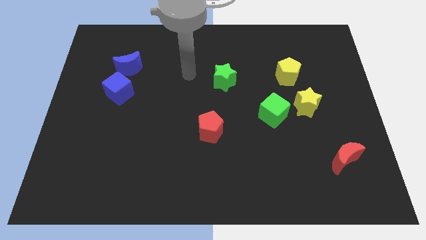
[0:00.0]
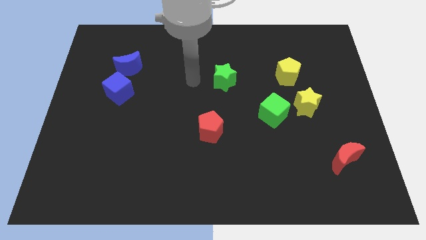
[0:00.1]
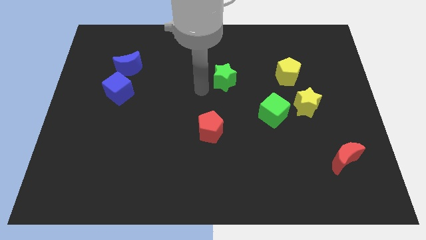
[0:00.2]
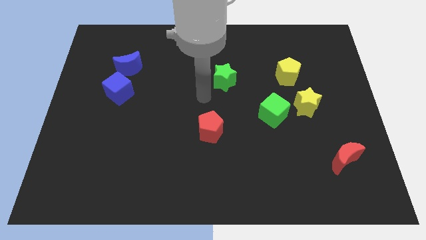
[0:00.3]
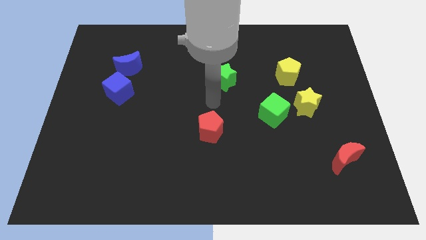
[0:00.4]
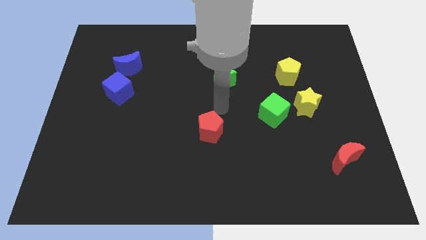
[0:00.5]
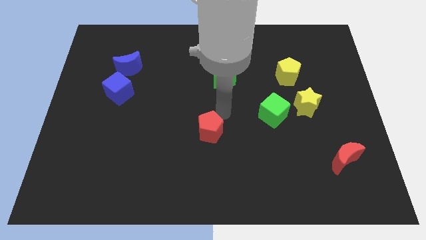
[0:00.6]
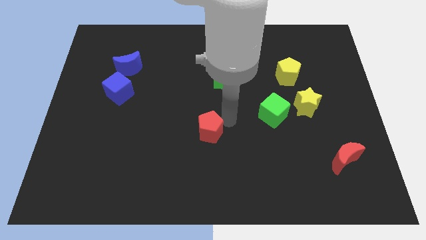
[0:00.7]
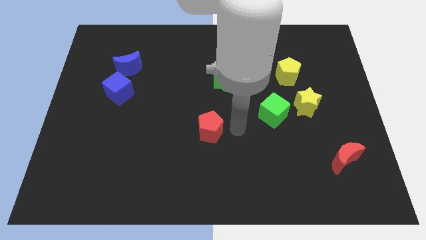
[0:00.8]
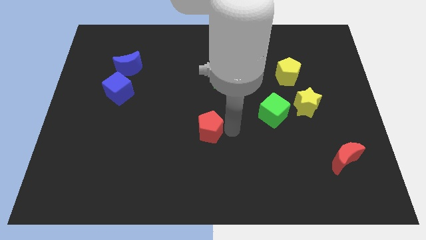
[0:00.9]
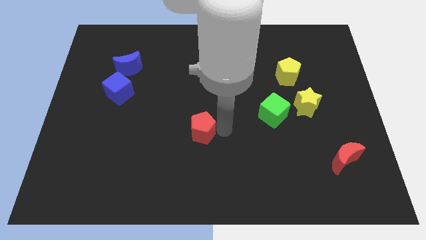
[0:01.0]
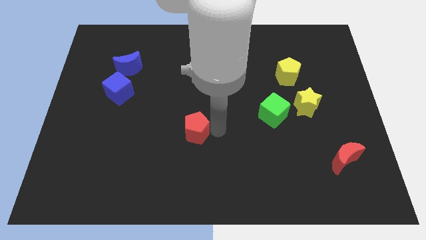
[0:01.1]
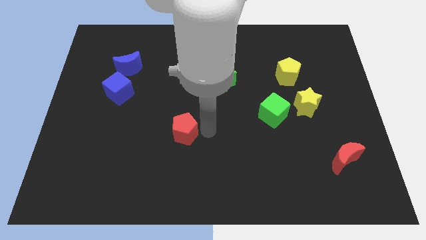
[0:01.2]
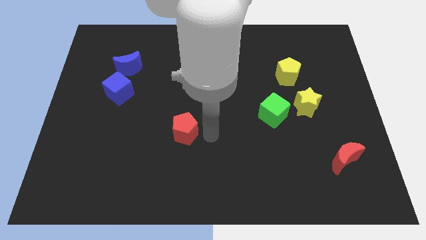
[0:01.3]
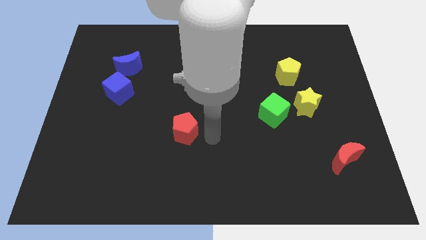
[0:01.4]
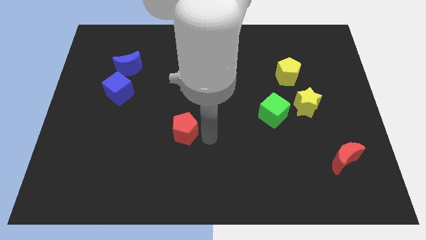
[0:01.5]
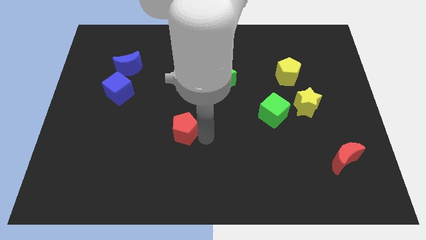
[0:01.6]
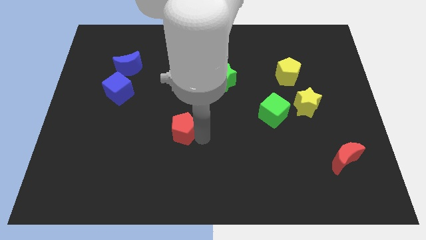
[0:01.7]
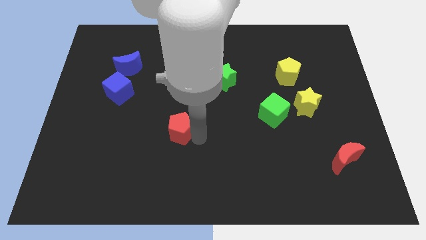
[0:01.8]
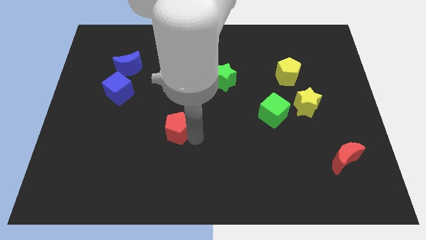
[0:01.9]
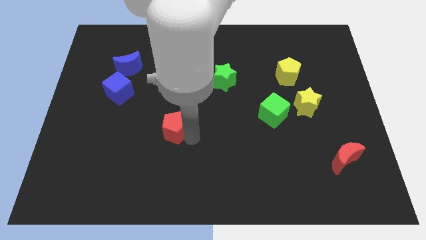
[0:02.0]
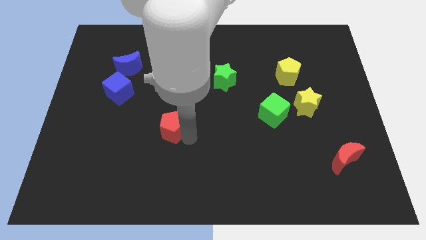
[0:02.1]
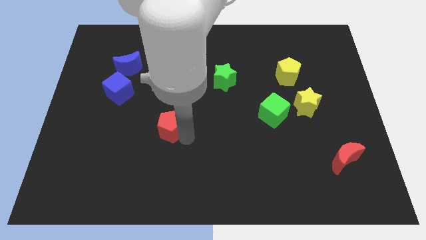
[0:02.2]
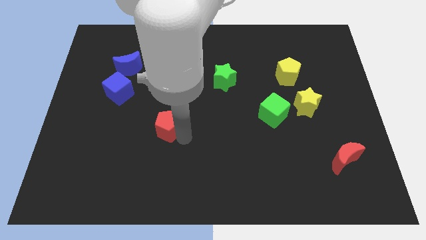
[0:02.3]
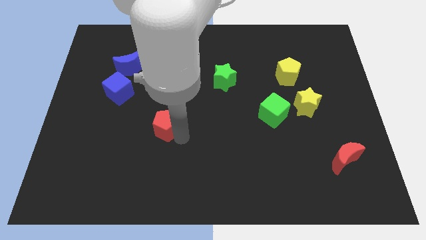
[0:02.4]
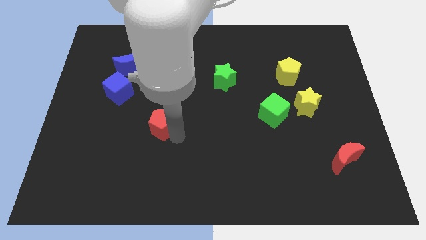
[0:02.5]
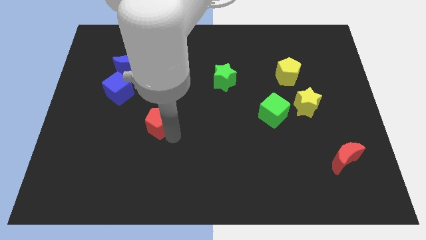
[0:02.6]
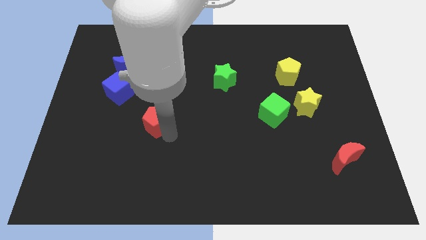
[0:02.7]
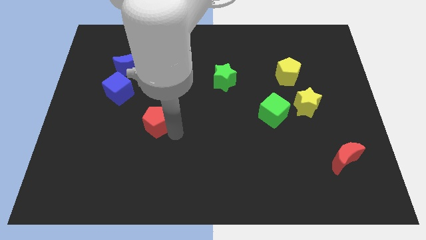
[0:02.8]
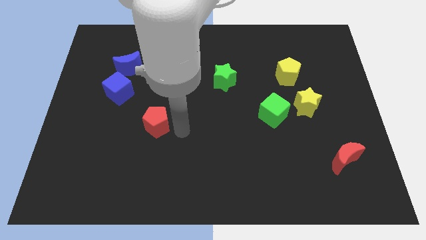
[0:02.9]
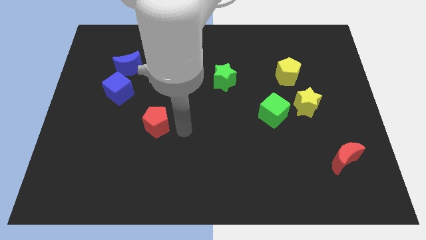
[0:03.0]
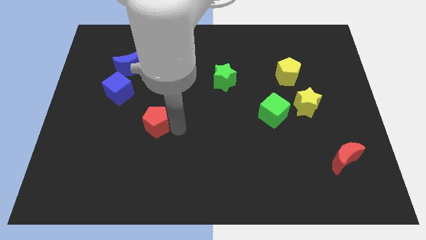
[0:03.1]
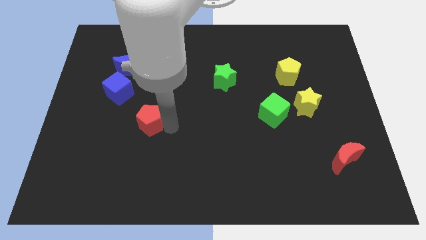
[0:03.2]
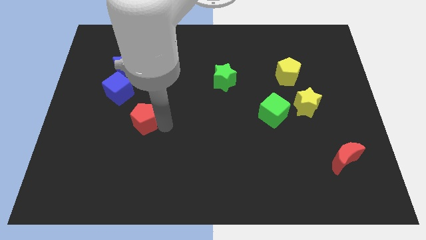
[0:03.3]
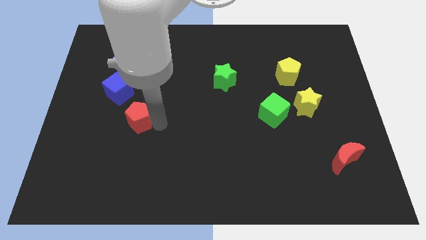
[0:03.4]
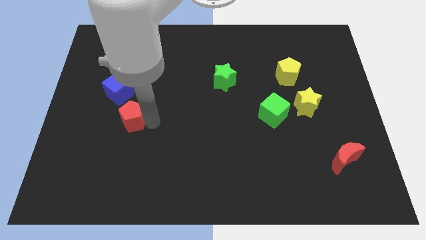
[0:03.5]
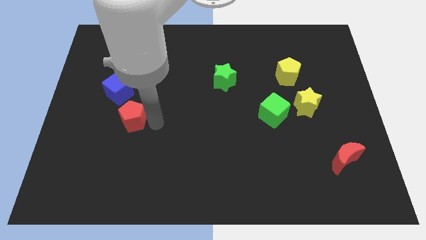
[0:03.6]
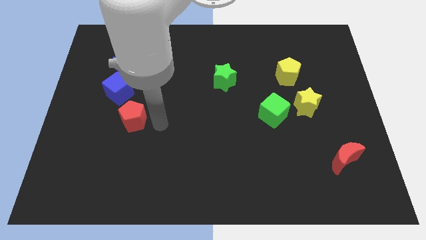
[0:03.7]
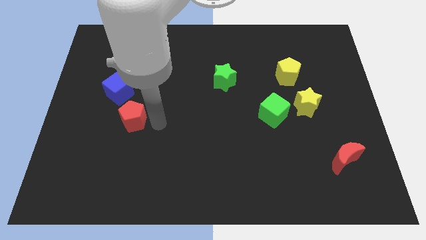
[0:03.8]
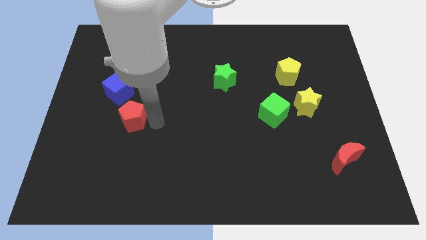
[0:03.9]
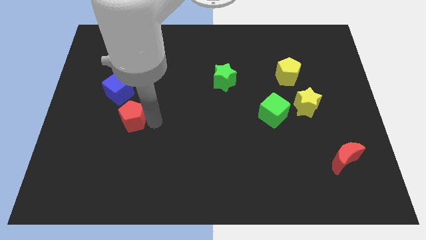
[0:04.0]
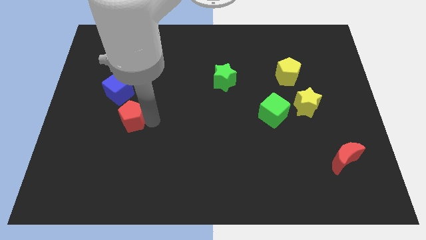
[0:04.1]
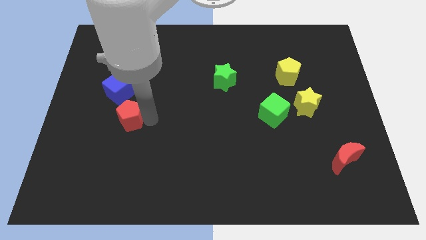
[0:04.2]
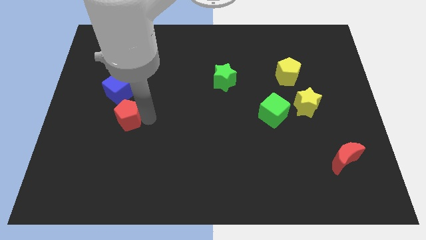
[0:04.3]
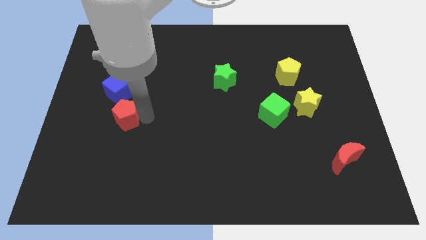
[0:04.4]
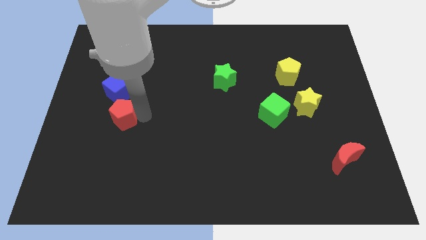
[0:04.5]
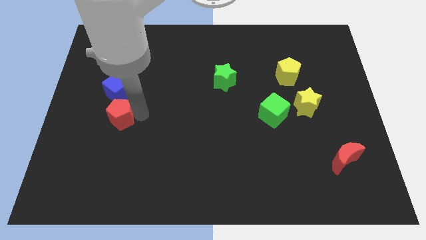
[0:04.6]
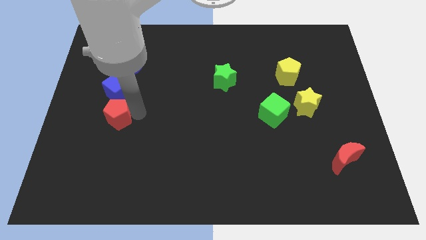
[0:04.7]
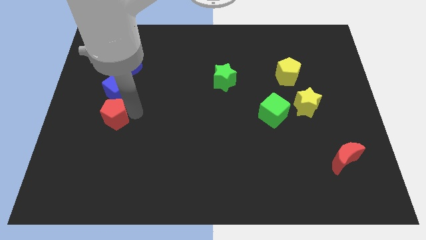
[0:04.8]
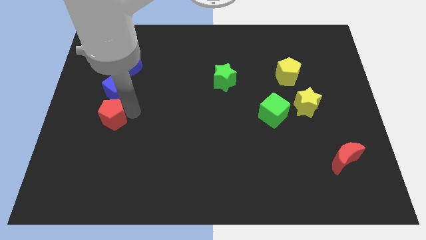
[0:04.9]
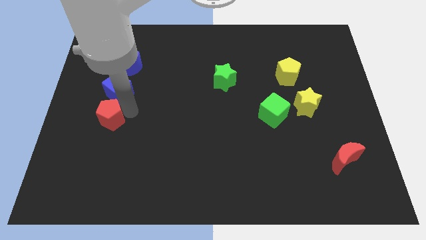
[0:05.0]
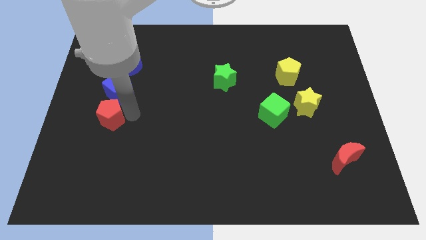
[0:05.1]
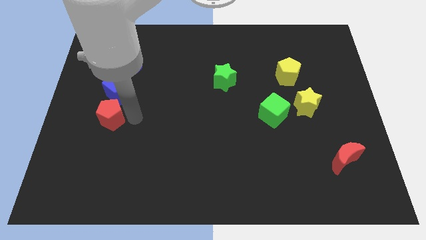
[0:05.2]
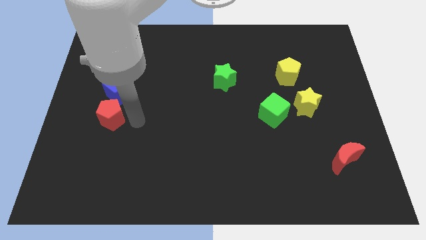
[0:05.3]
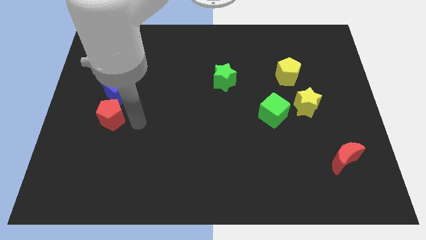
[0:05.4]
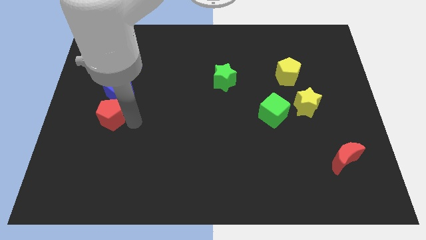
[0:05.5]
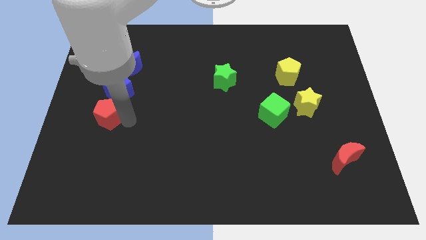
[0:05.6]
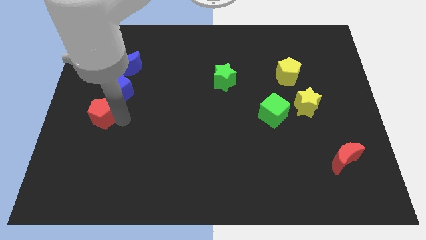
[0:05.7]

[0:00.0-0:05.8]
slide the red pentagon to the left side of the board
